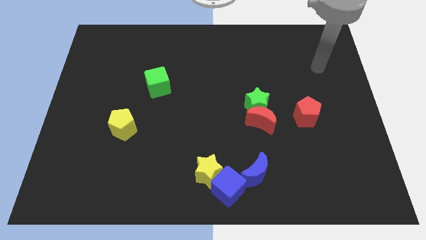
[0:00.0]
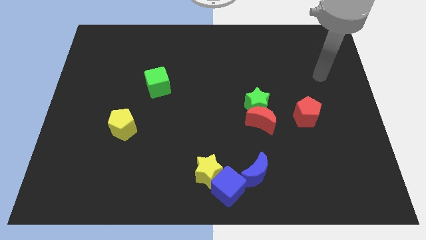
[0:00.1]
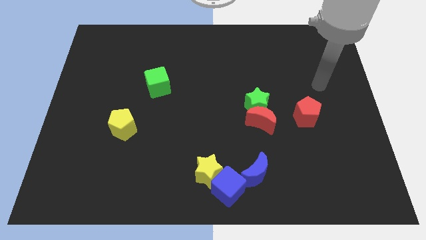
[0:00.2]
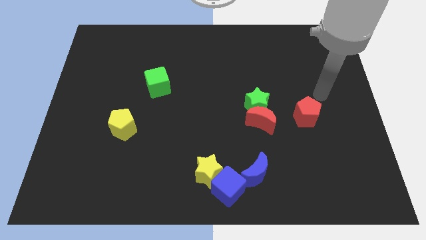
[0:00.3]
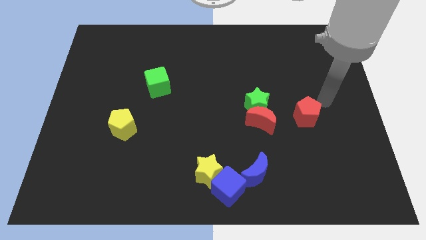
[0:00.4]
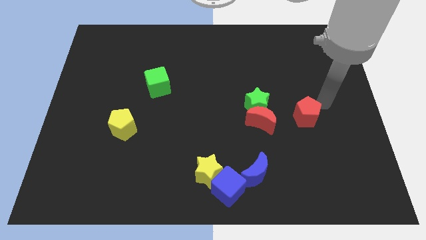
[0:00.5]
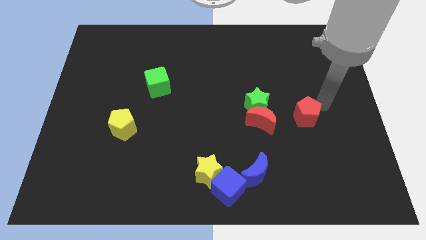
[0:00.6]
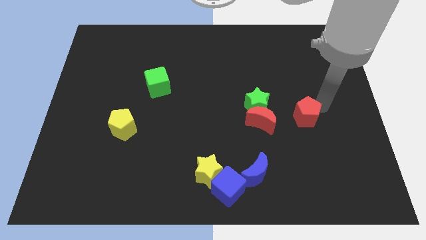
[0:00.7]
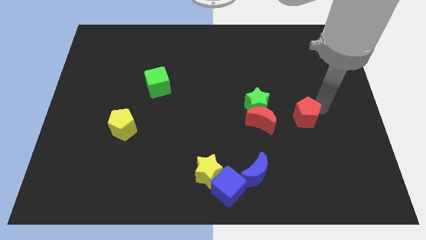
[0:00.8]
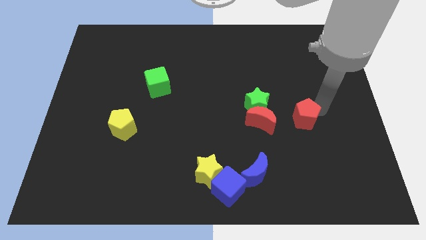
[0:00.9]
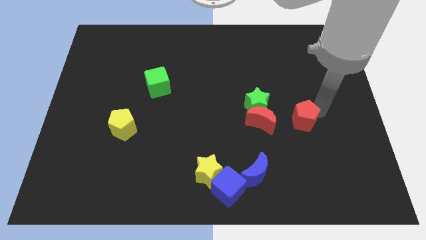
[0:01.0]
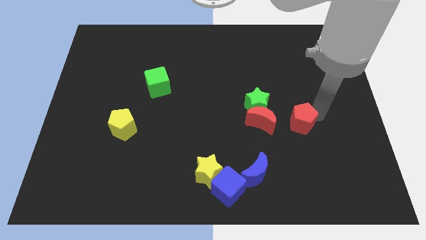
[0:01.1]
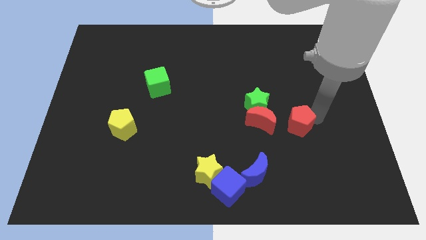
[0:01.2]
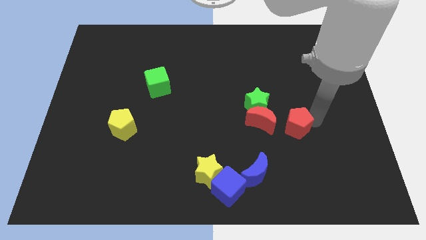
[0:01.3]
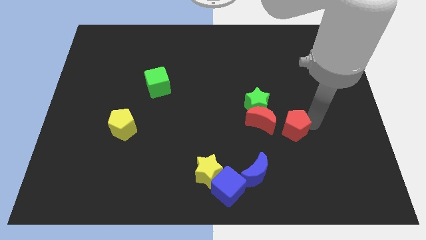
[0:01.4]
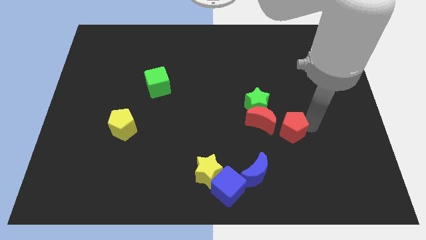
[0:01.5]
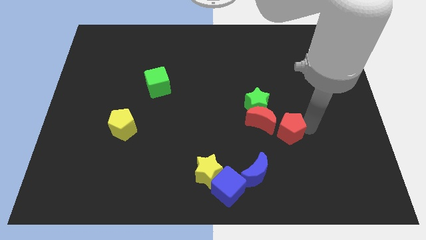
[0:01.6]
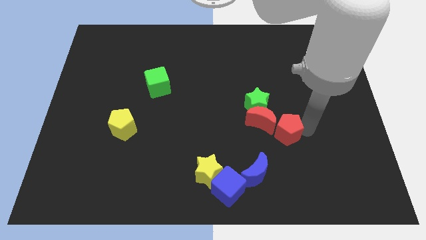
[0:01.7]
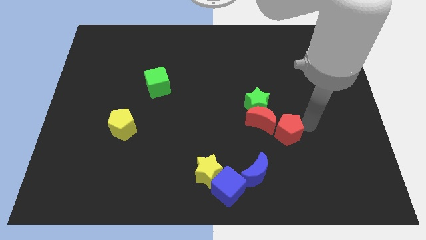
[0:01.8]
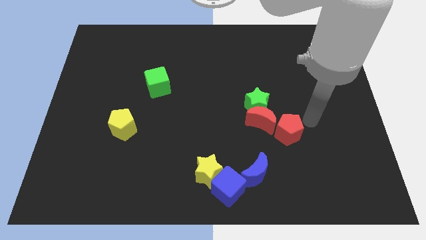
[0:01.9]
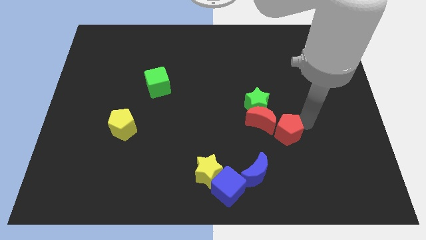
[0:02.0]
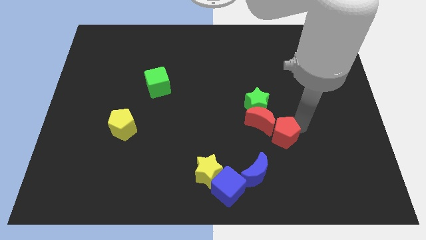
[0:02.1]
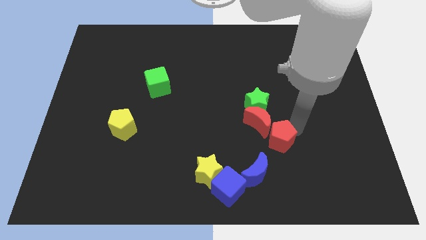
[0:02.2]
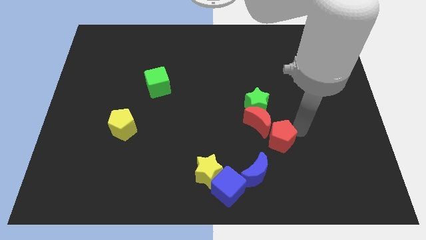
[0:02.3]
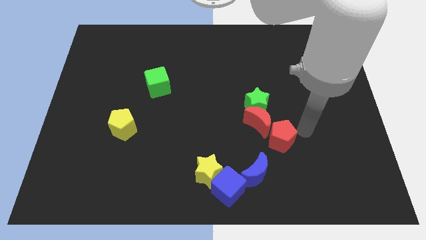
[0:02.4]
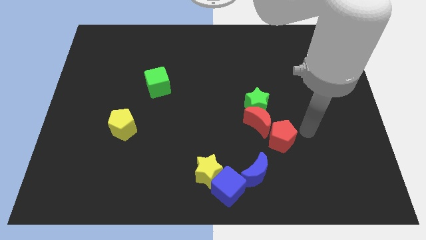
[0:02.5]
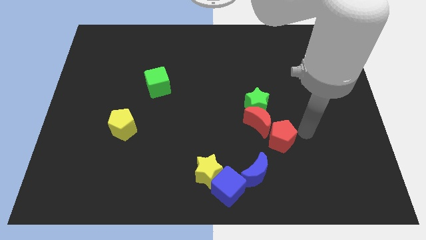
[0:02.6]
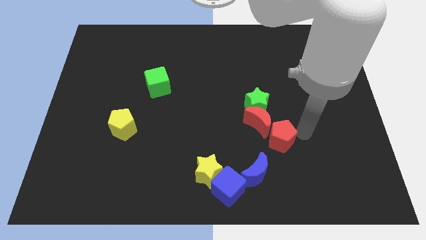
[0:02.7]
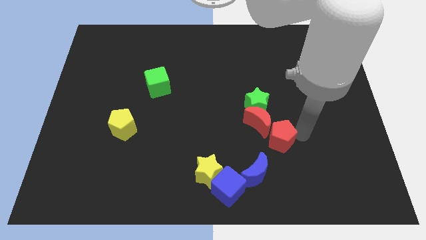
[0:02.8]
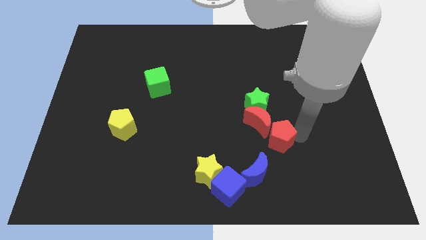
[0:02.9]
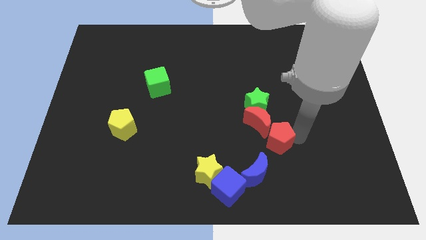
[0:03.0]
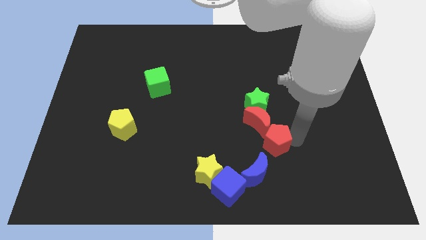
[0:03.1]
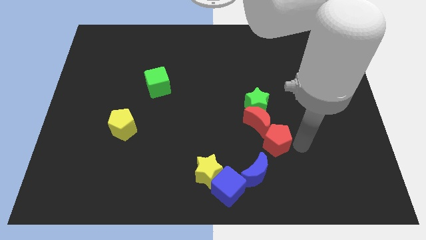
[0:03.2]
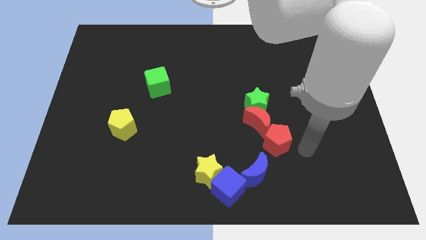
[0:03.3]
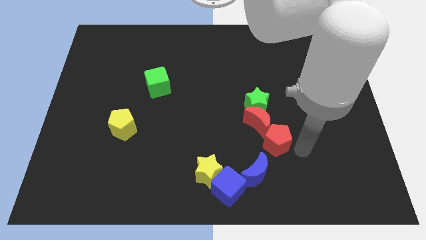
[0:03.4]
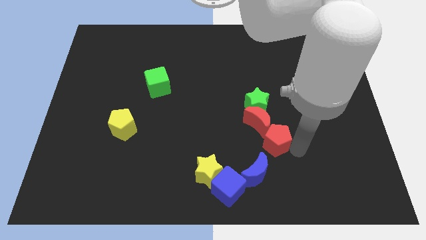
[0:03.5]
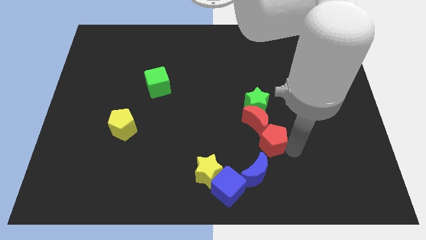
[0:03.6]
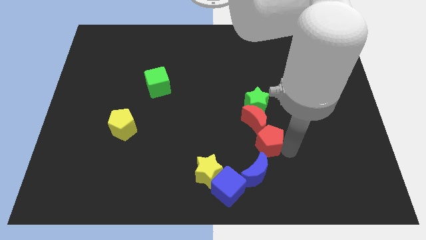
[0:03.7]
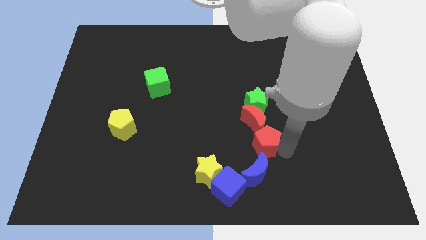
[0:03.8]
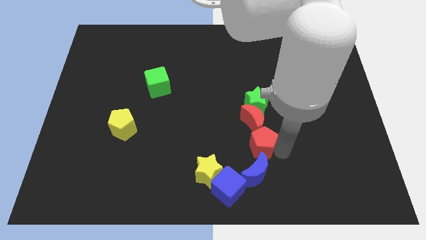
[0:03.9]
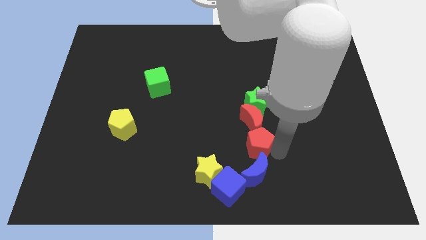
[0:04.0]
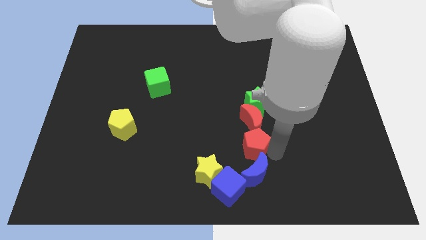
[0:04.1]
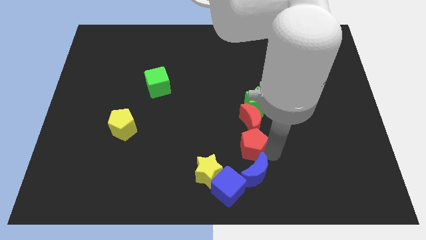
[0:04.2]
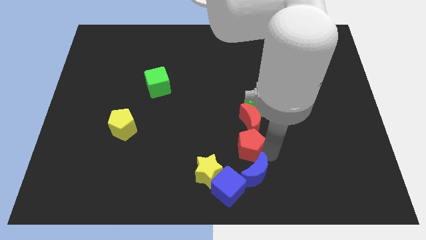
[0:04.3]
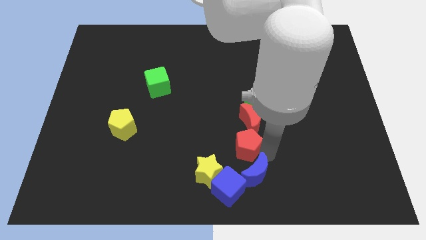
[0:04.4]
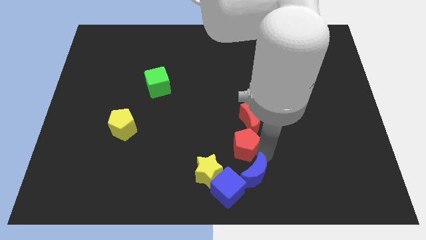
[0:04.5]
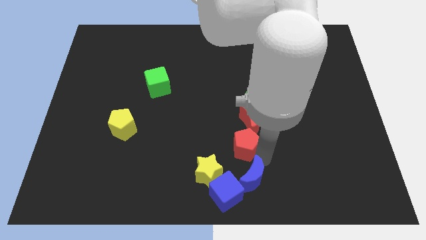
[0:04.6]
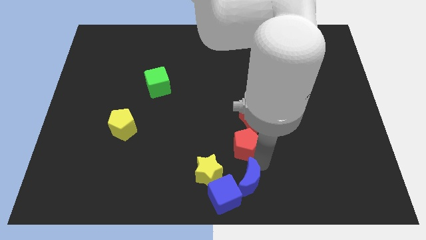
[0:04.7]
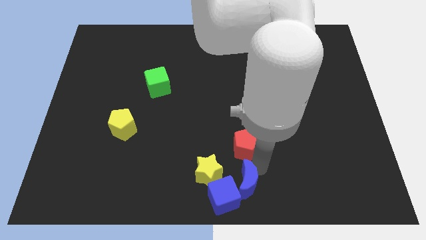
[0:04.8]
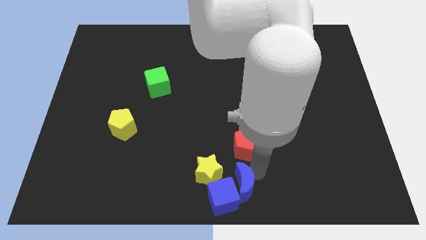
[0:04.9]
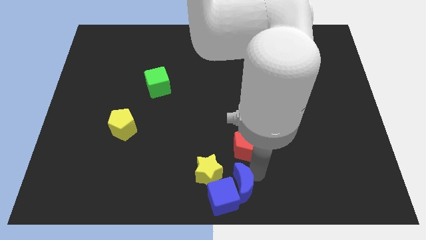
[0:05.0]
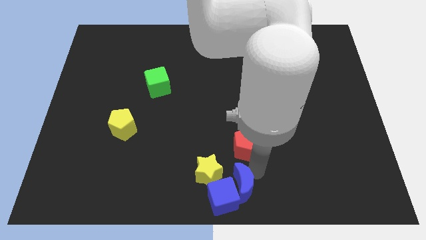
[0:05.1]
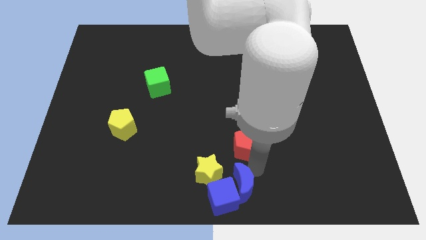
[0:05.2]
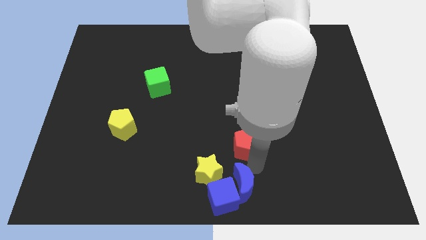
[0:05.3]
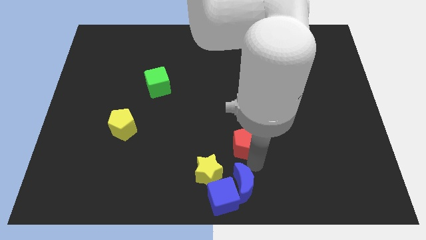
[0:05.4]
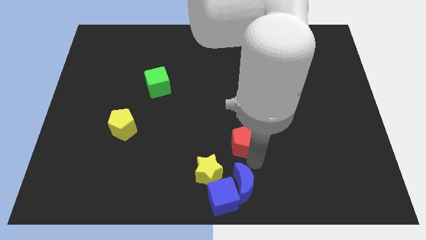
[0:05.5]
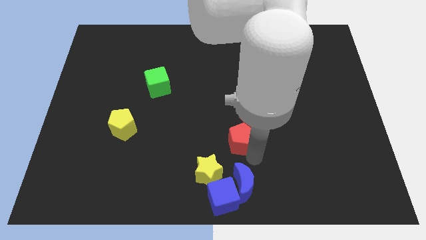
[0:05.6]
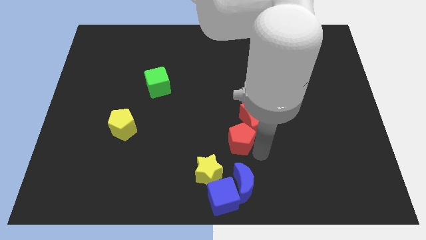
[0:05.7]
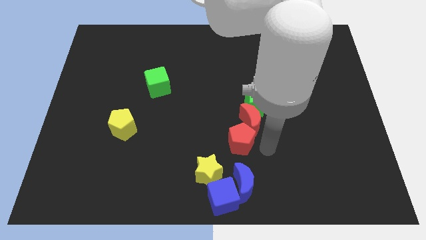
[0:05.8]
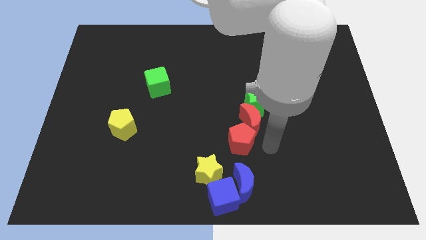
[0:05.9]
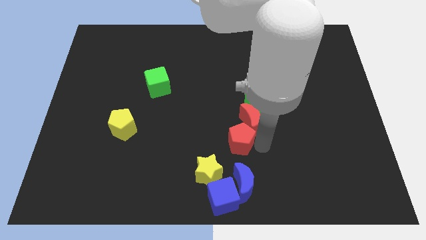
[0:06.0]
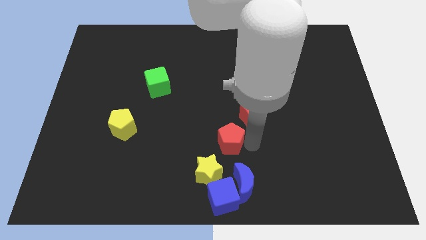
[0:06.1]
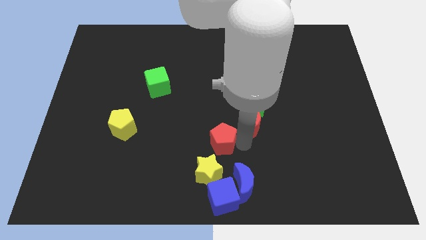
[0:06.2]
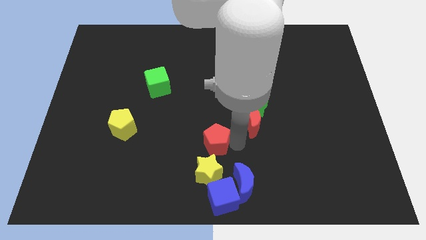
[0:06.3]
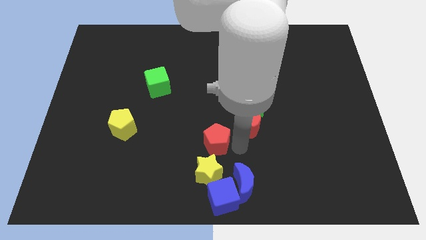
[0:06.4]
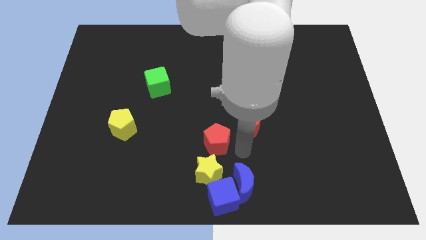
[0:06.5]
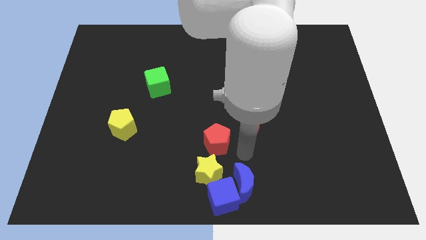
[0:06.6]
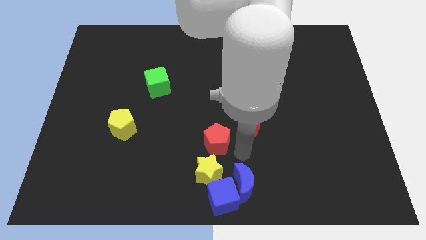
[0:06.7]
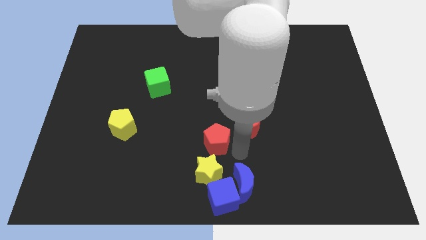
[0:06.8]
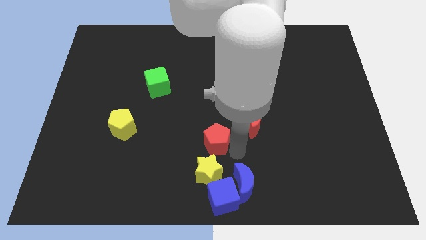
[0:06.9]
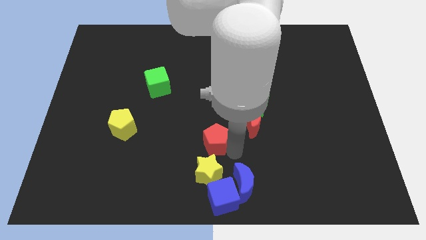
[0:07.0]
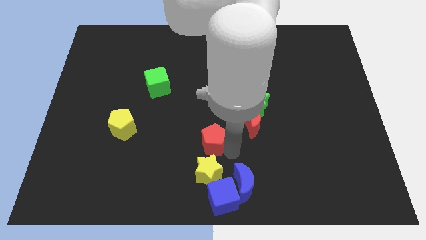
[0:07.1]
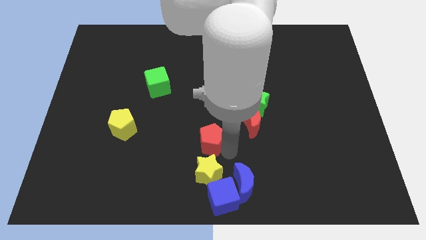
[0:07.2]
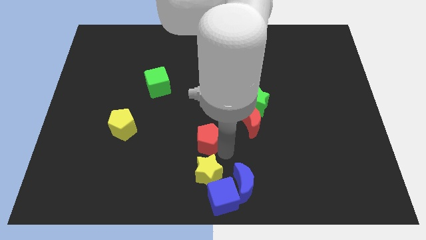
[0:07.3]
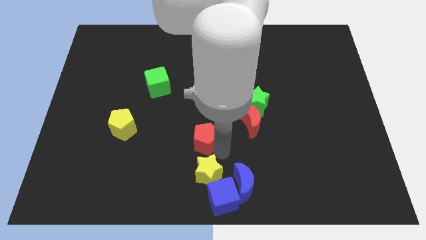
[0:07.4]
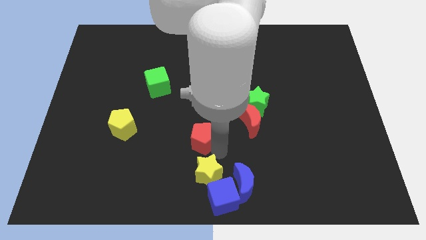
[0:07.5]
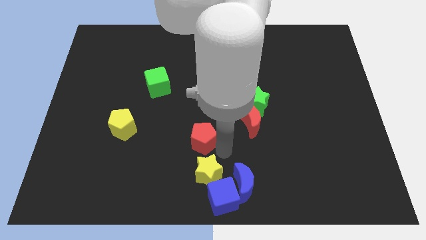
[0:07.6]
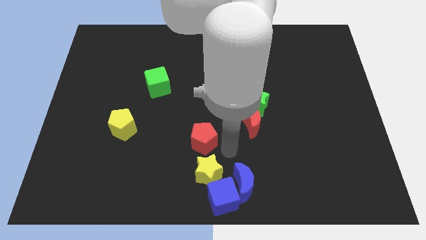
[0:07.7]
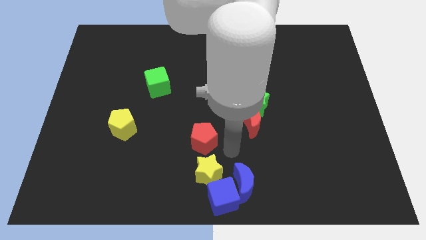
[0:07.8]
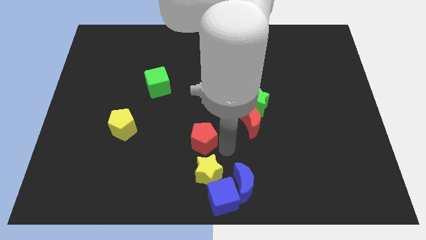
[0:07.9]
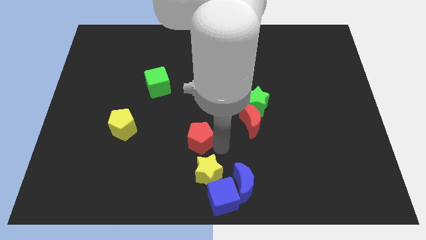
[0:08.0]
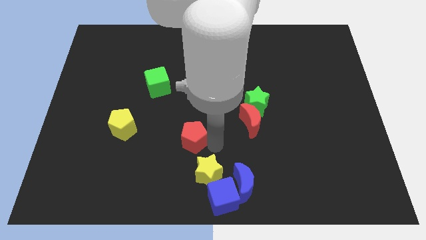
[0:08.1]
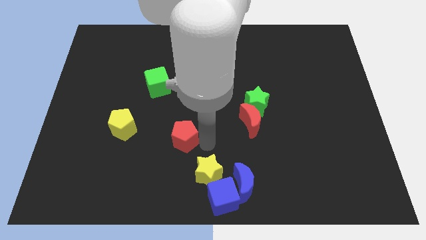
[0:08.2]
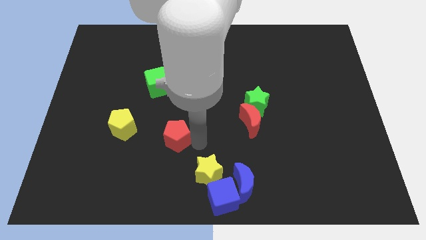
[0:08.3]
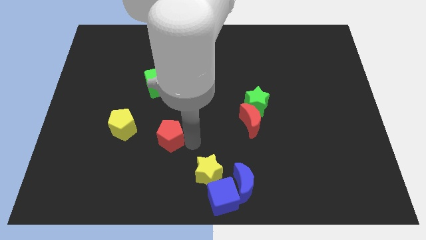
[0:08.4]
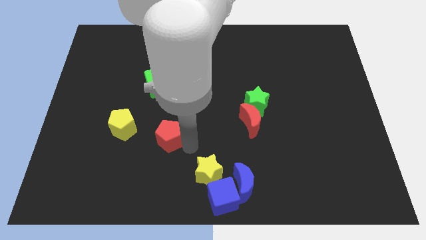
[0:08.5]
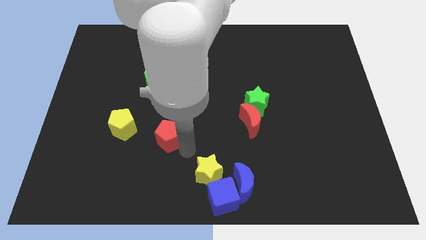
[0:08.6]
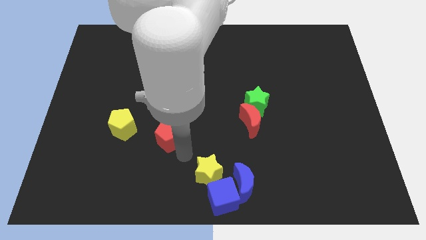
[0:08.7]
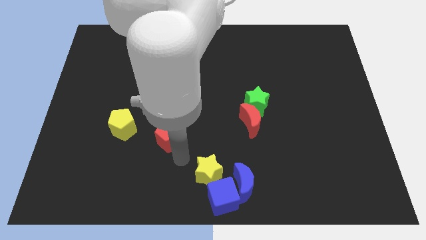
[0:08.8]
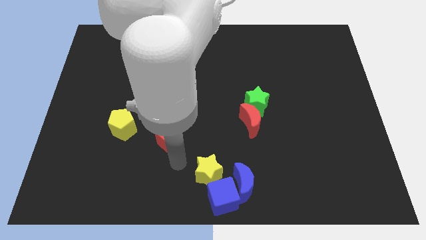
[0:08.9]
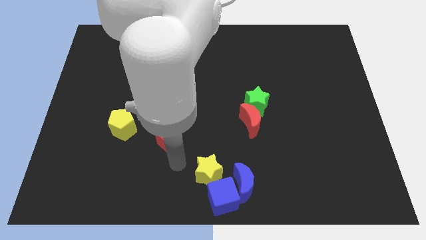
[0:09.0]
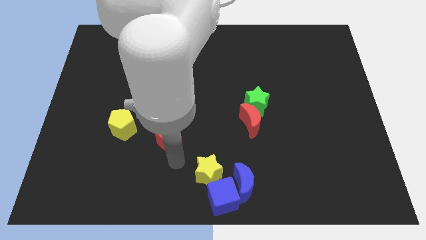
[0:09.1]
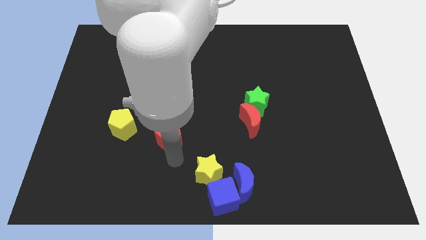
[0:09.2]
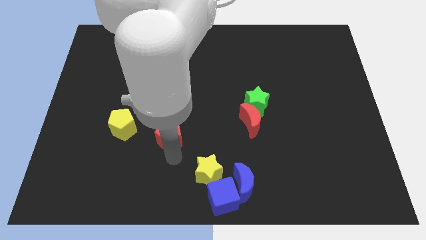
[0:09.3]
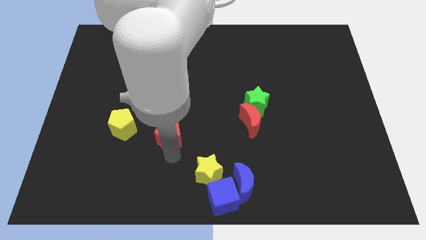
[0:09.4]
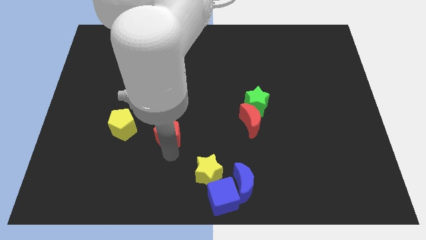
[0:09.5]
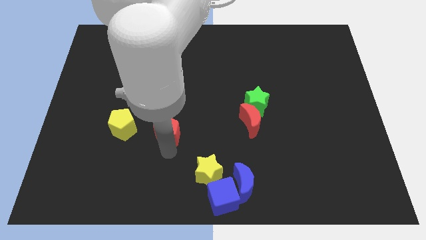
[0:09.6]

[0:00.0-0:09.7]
slide the red pentagon to the bottom side of the green cube
